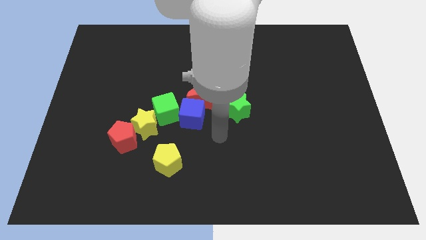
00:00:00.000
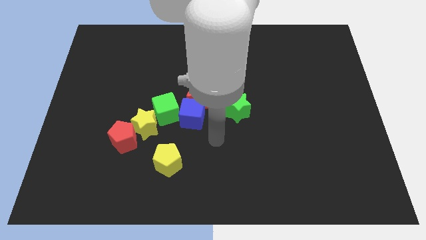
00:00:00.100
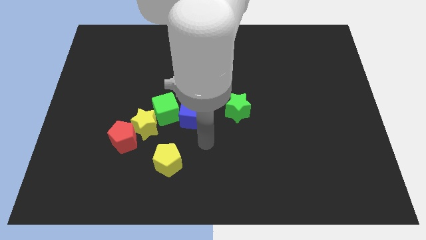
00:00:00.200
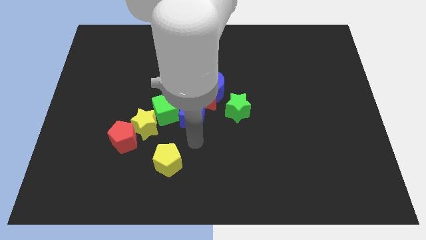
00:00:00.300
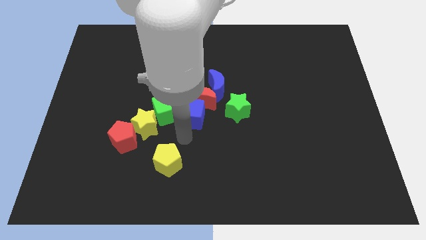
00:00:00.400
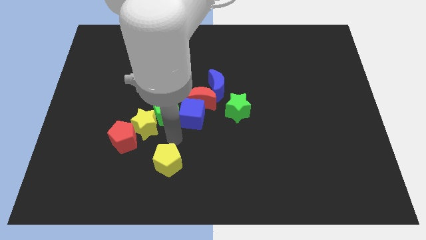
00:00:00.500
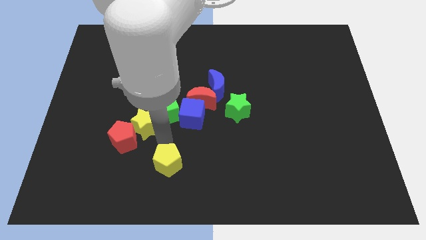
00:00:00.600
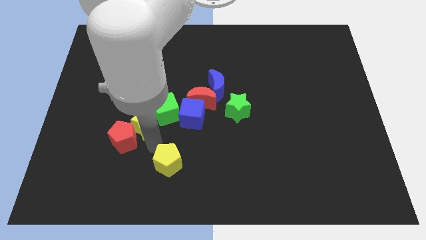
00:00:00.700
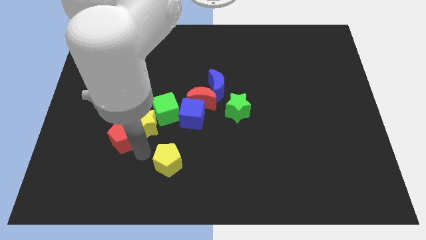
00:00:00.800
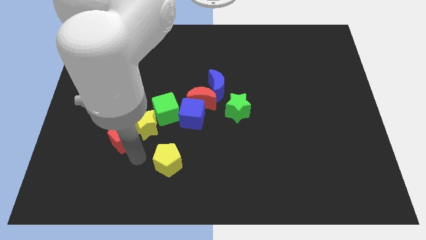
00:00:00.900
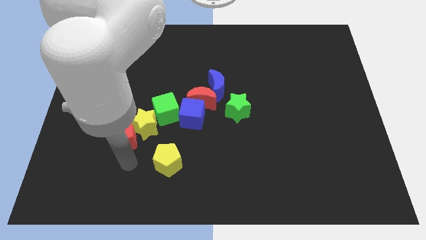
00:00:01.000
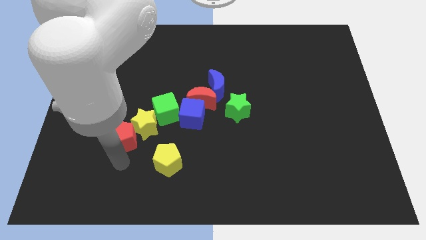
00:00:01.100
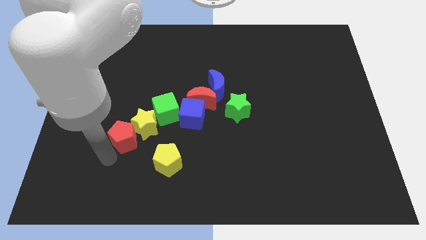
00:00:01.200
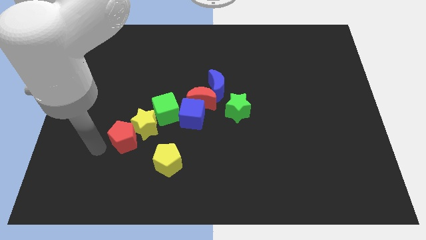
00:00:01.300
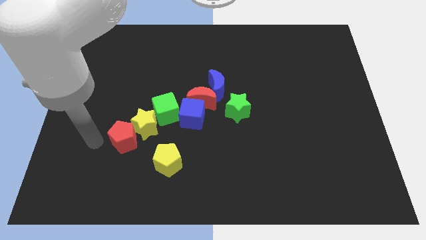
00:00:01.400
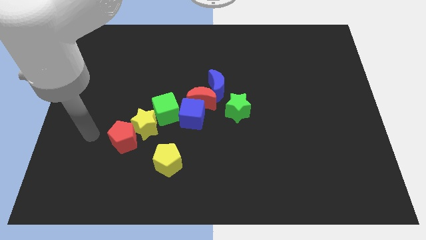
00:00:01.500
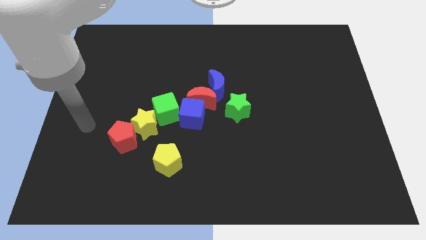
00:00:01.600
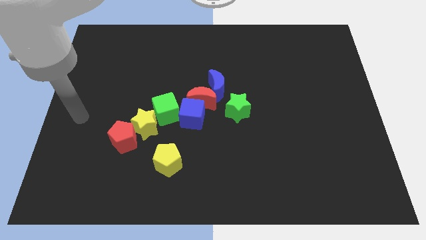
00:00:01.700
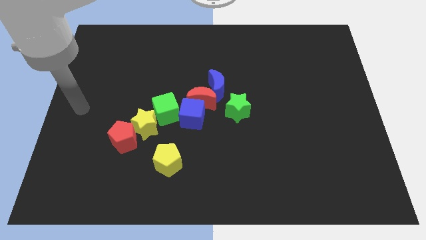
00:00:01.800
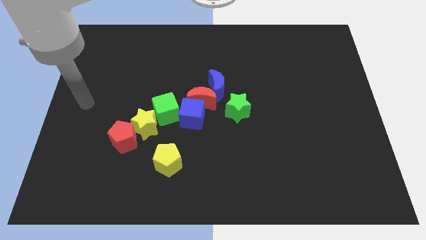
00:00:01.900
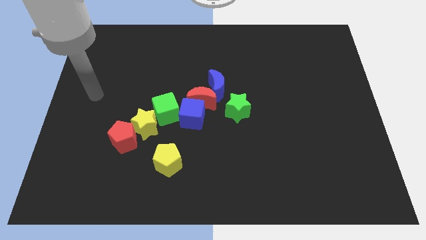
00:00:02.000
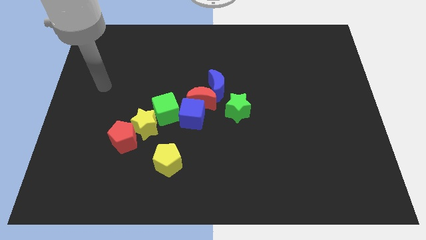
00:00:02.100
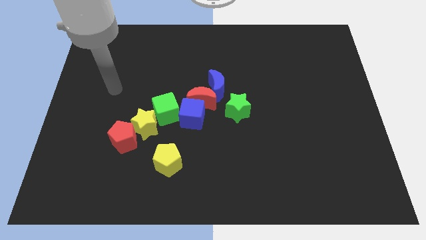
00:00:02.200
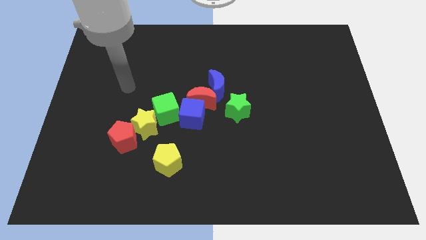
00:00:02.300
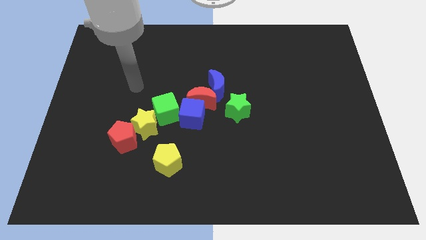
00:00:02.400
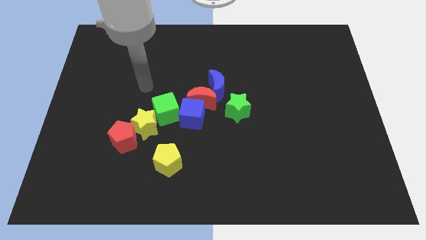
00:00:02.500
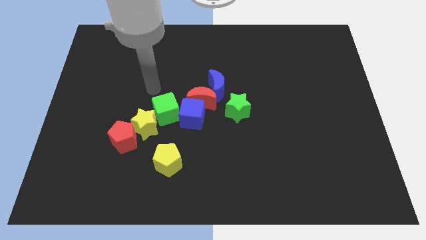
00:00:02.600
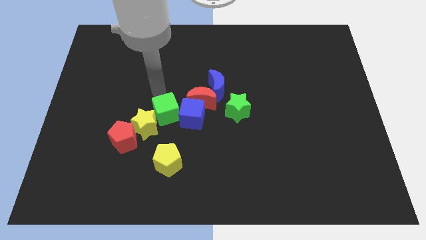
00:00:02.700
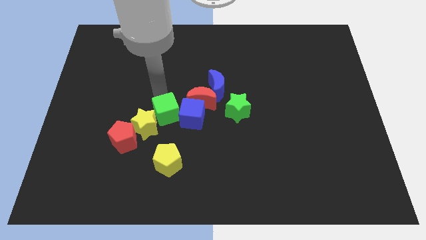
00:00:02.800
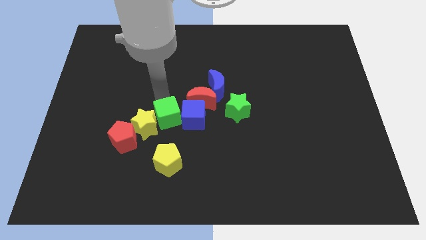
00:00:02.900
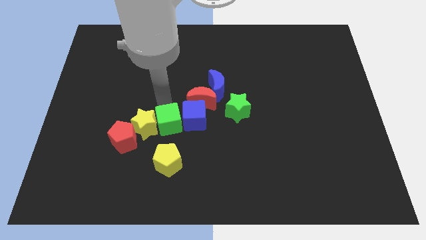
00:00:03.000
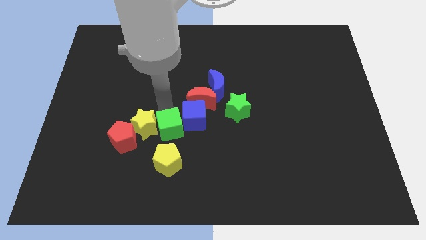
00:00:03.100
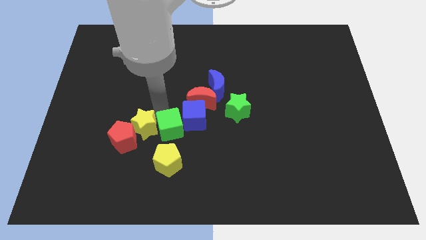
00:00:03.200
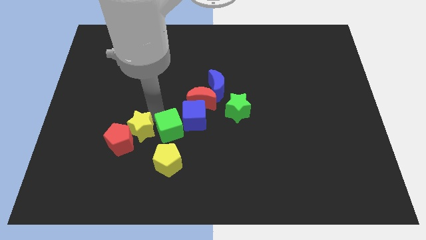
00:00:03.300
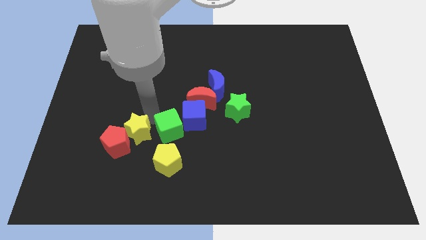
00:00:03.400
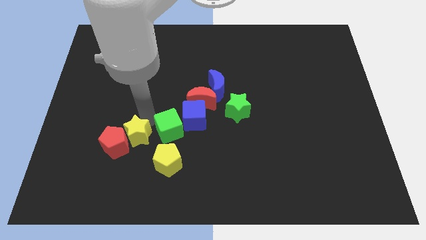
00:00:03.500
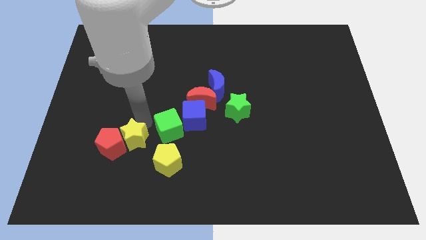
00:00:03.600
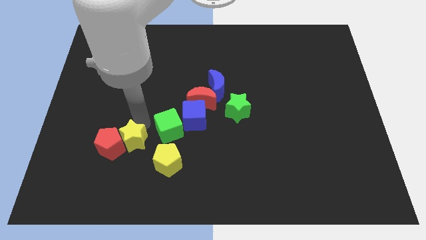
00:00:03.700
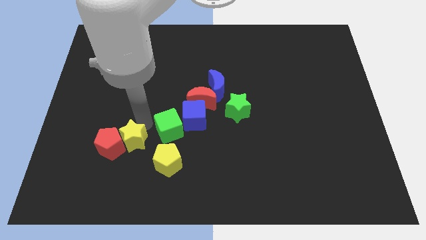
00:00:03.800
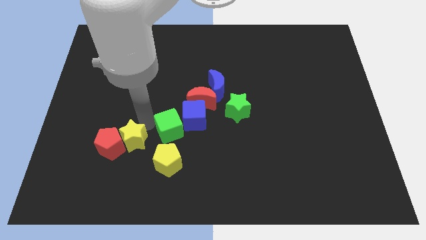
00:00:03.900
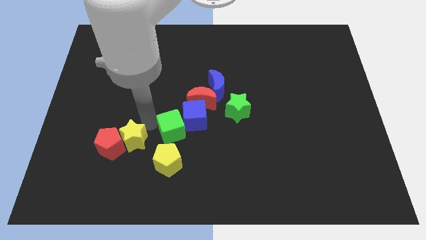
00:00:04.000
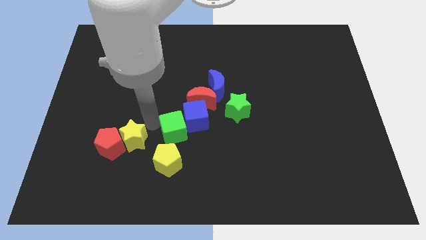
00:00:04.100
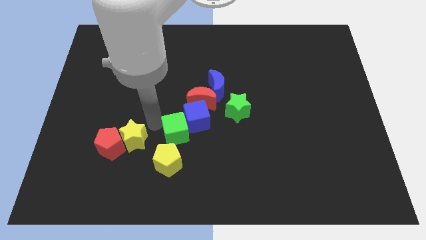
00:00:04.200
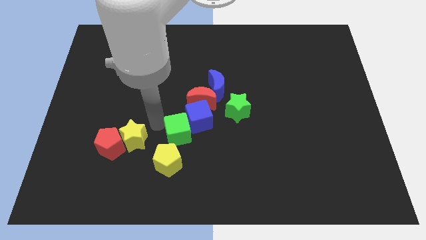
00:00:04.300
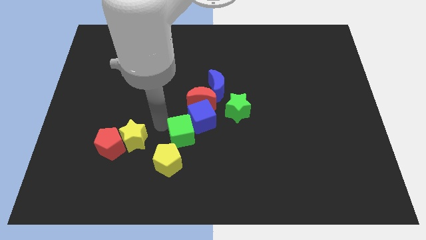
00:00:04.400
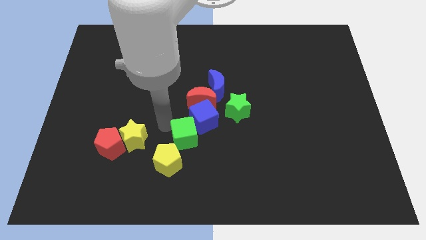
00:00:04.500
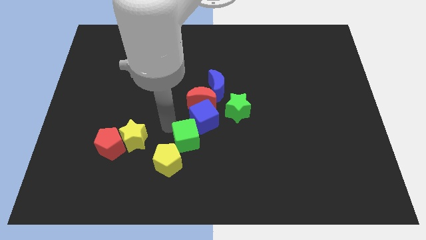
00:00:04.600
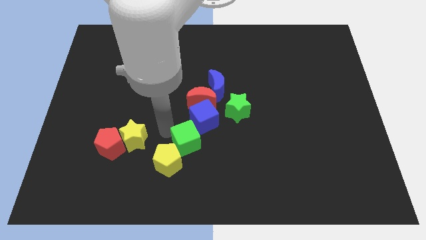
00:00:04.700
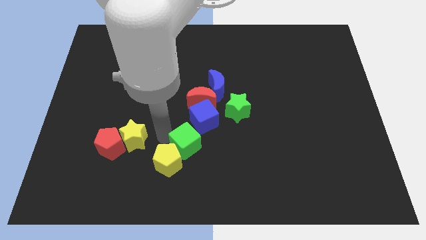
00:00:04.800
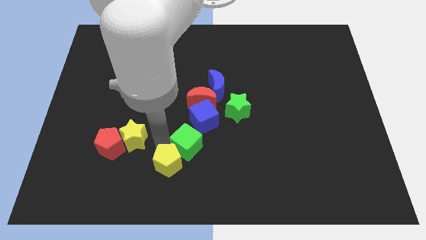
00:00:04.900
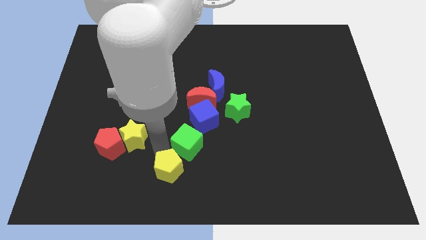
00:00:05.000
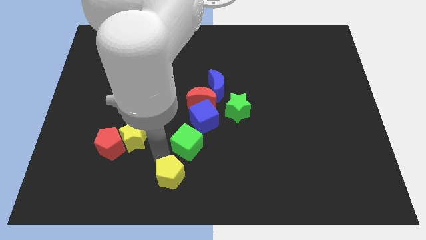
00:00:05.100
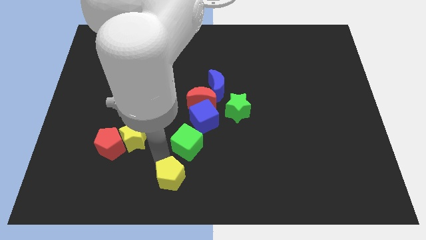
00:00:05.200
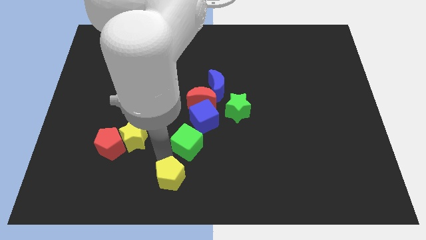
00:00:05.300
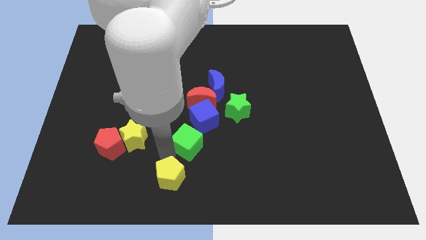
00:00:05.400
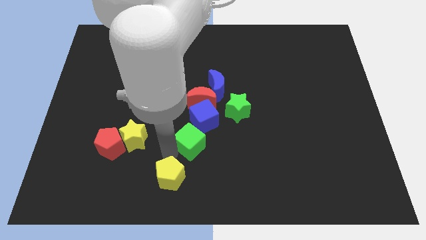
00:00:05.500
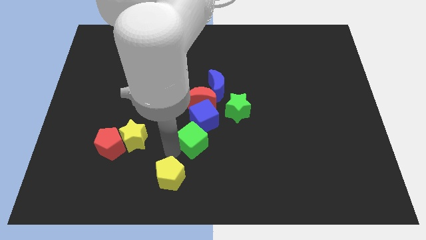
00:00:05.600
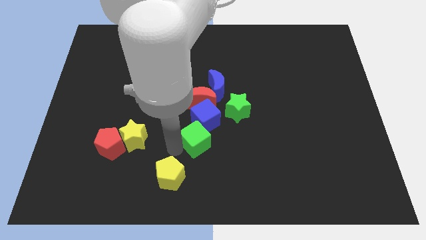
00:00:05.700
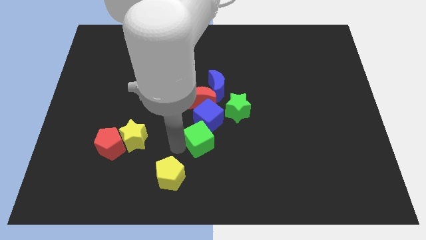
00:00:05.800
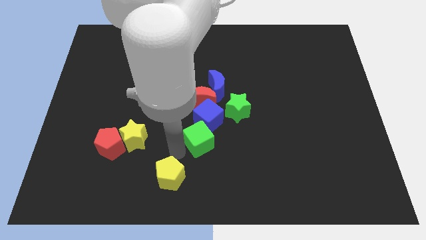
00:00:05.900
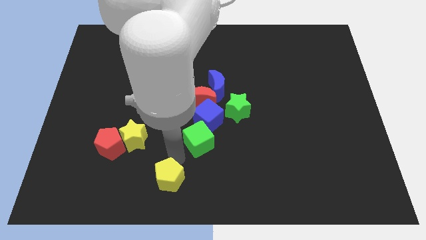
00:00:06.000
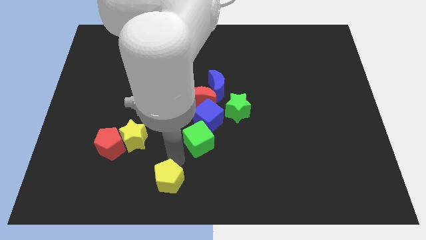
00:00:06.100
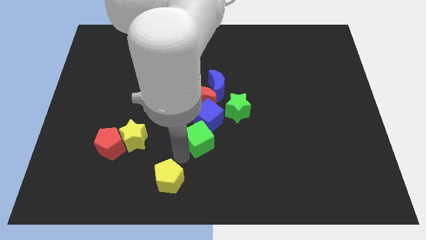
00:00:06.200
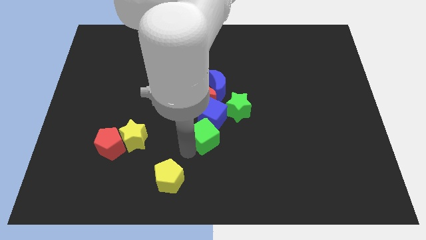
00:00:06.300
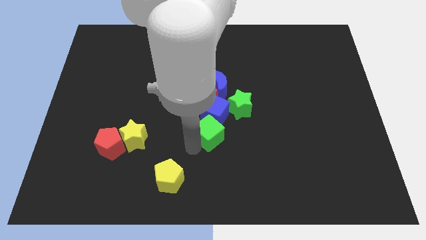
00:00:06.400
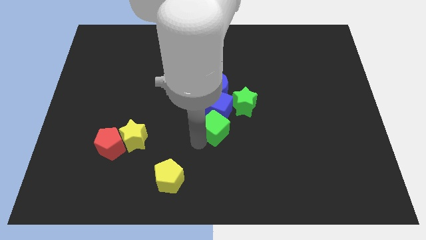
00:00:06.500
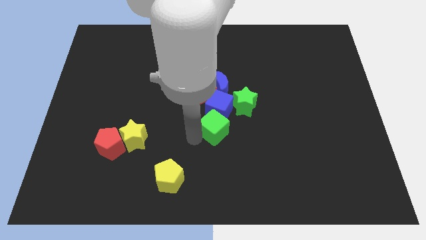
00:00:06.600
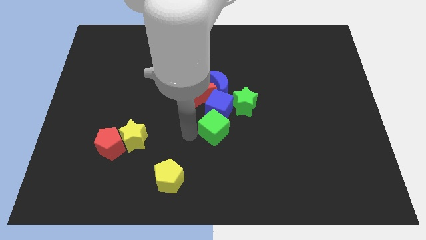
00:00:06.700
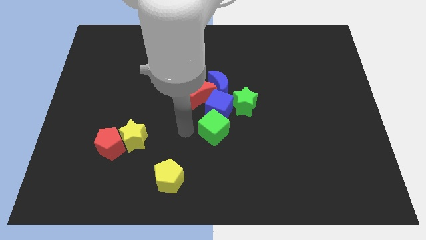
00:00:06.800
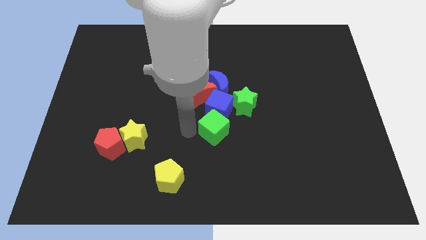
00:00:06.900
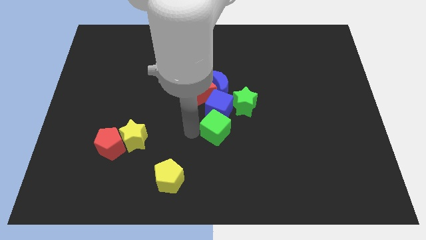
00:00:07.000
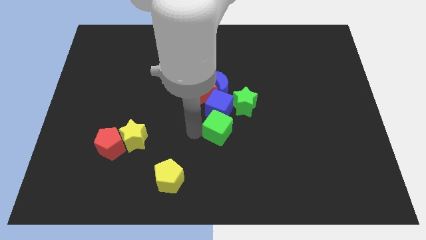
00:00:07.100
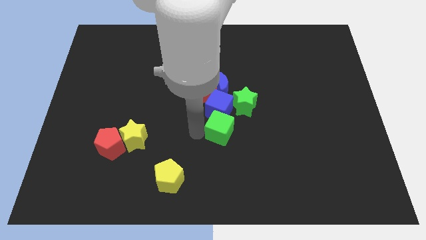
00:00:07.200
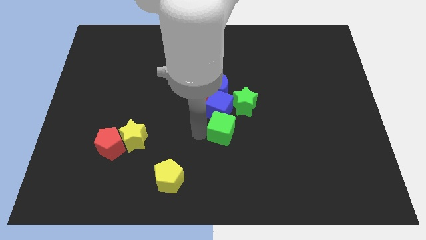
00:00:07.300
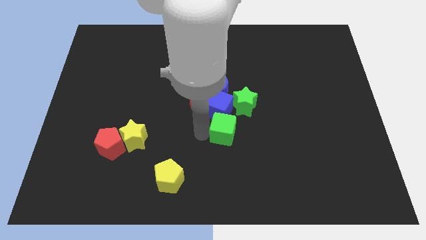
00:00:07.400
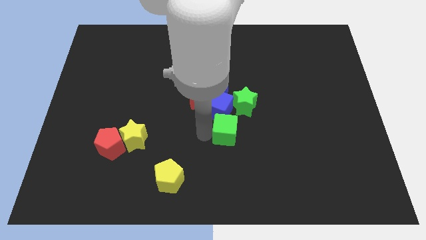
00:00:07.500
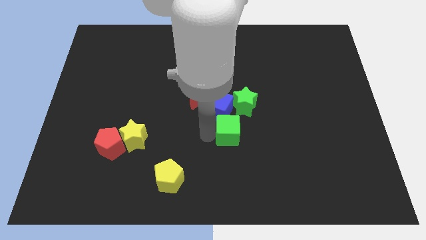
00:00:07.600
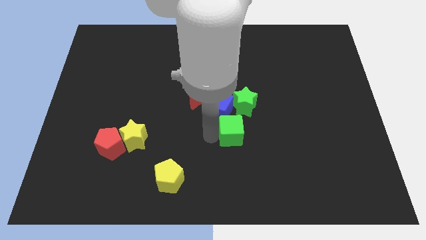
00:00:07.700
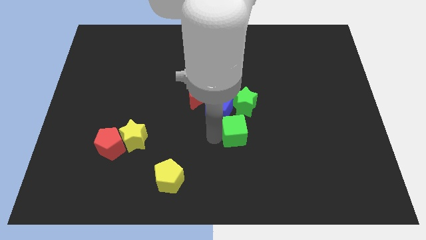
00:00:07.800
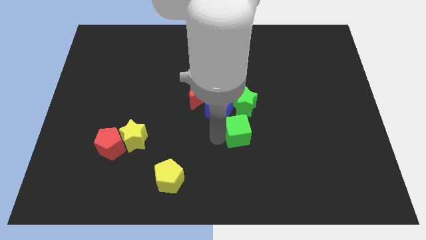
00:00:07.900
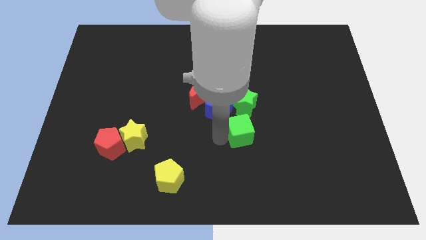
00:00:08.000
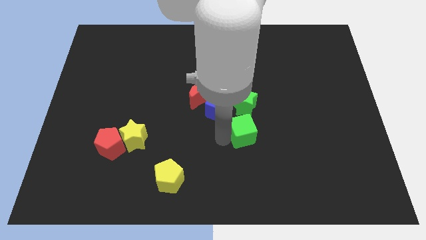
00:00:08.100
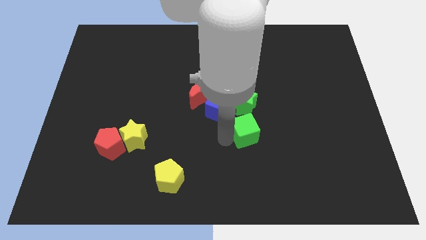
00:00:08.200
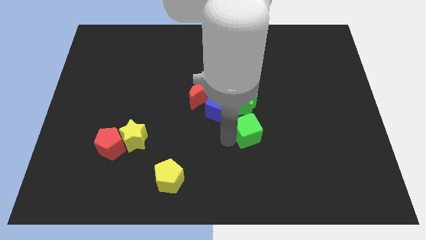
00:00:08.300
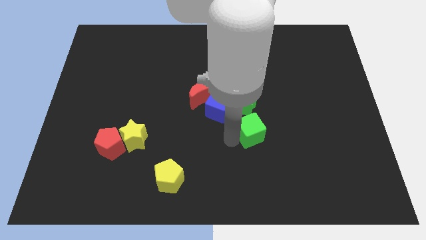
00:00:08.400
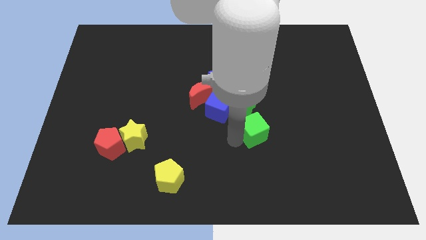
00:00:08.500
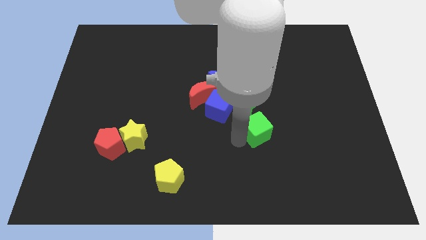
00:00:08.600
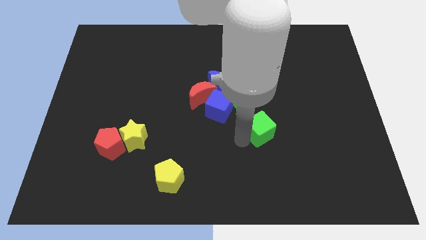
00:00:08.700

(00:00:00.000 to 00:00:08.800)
slide the green cube to the right
